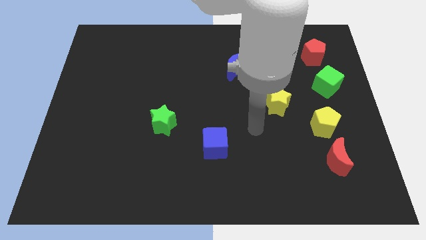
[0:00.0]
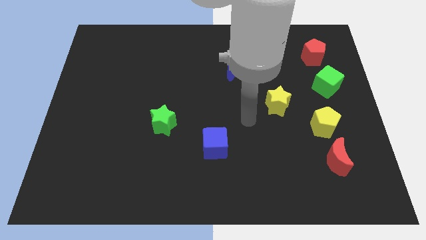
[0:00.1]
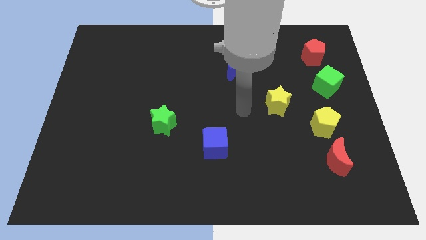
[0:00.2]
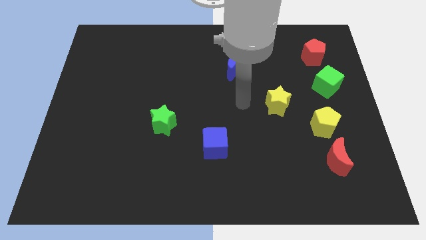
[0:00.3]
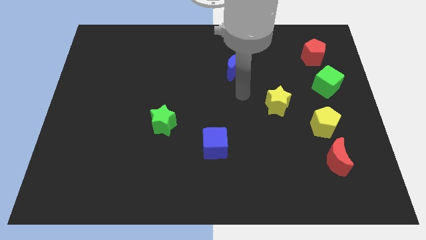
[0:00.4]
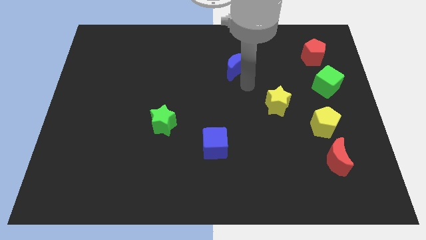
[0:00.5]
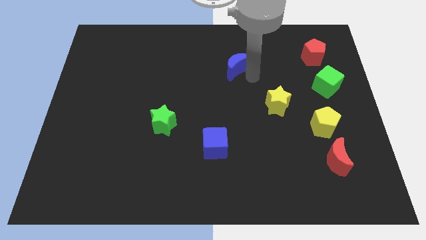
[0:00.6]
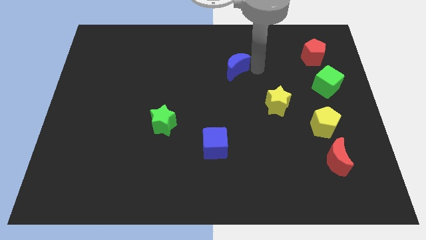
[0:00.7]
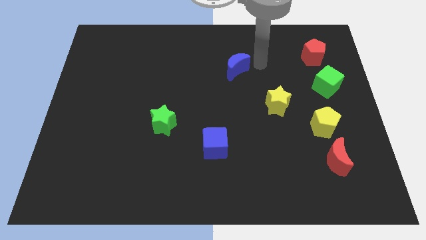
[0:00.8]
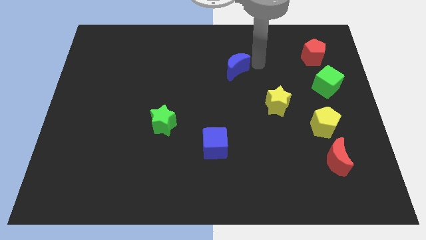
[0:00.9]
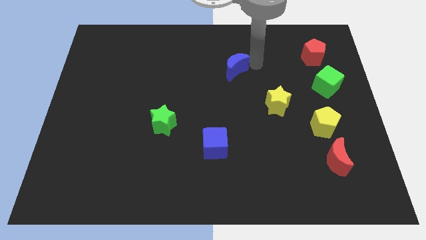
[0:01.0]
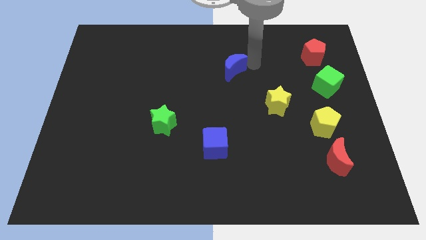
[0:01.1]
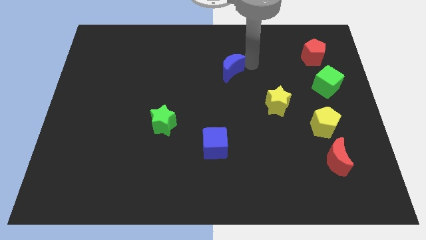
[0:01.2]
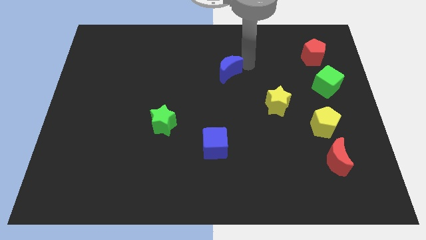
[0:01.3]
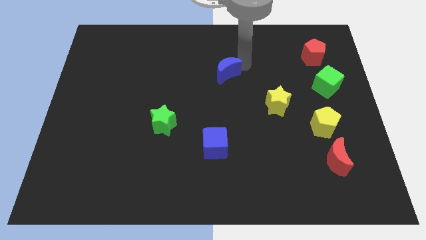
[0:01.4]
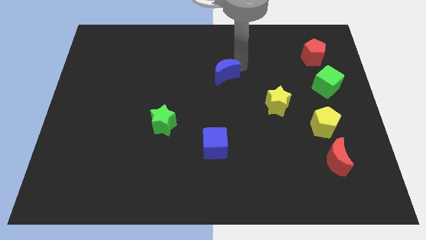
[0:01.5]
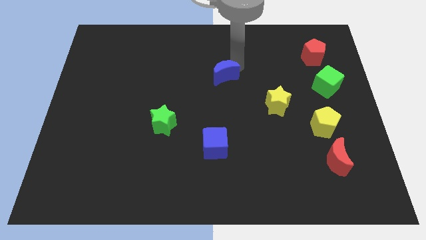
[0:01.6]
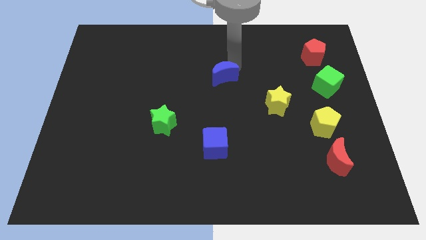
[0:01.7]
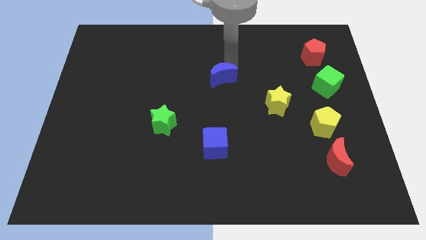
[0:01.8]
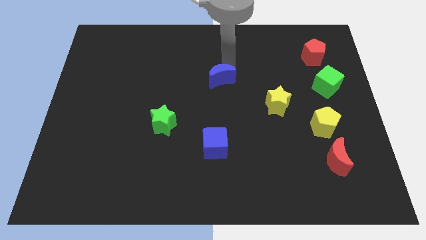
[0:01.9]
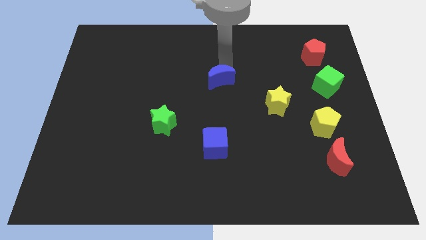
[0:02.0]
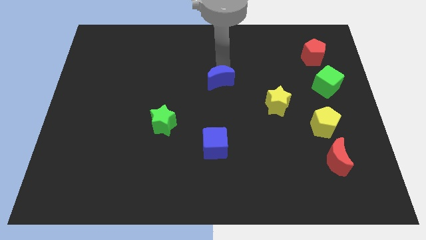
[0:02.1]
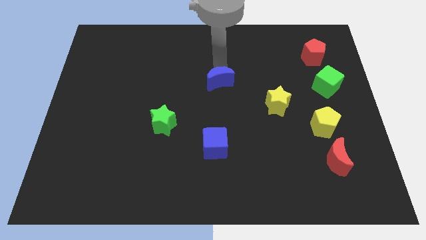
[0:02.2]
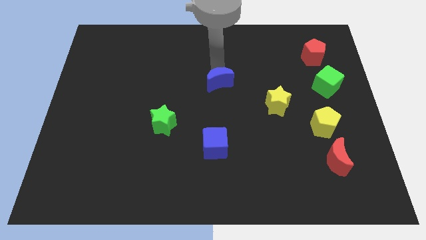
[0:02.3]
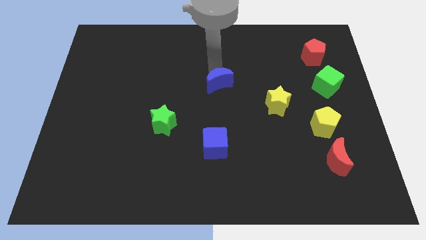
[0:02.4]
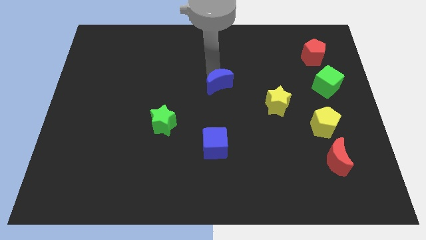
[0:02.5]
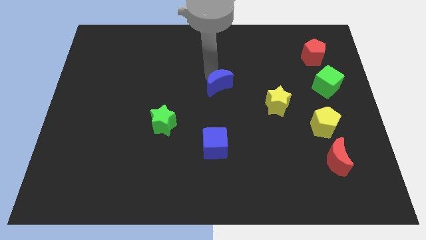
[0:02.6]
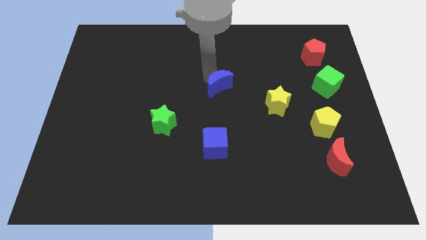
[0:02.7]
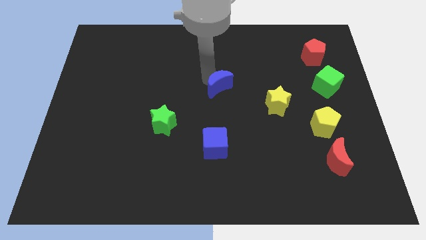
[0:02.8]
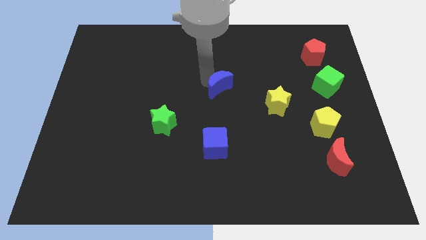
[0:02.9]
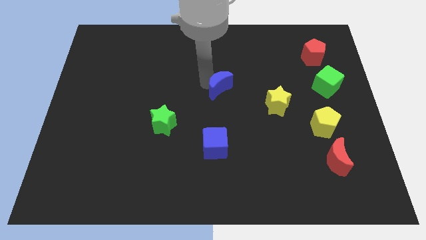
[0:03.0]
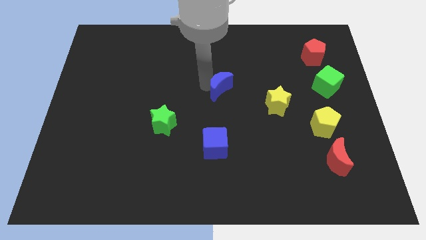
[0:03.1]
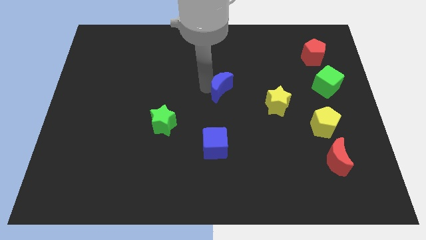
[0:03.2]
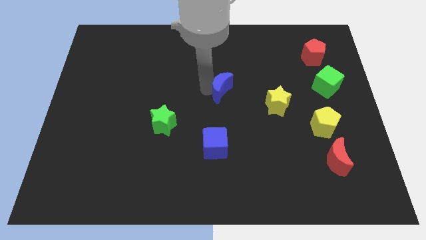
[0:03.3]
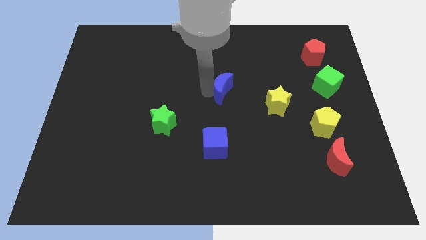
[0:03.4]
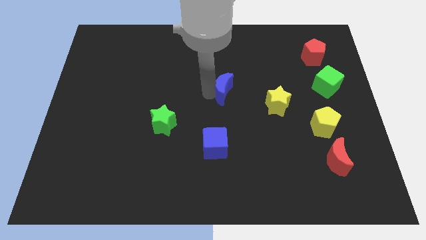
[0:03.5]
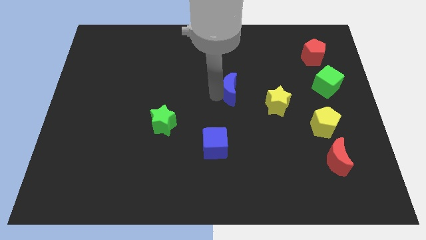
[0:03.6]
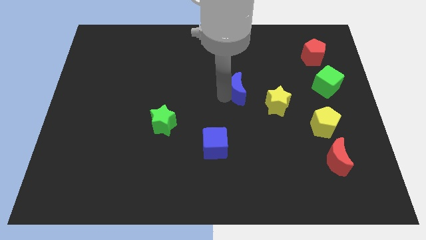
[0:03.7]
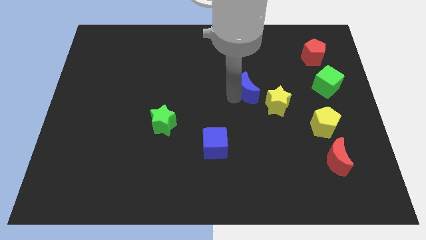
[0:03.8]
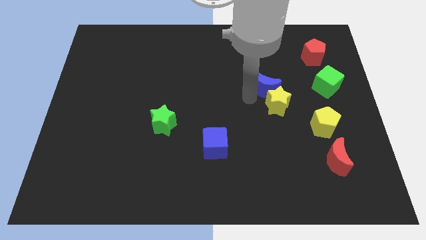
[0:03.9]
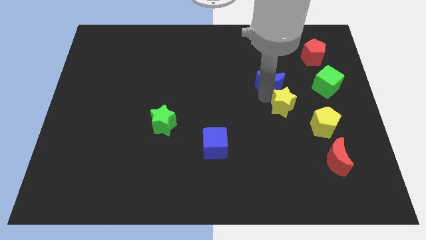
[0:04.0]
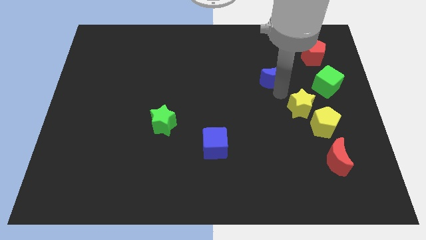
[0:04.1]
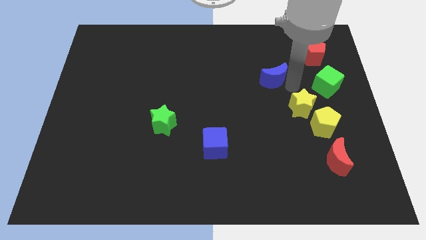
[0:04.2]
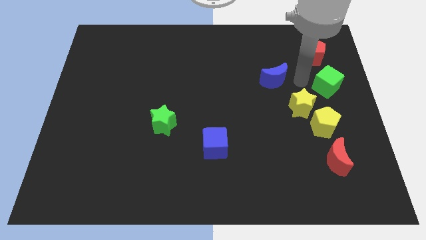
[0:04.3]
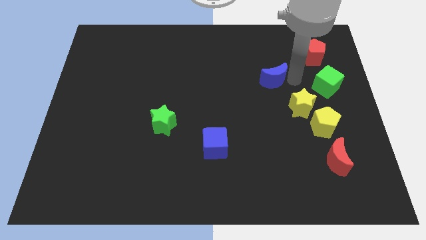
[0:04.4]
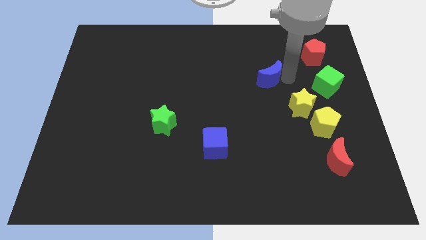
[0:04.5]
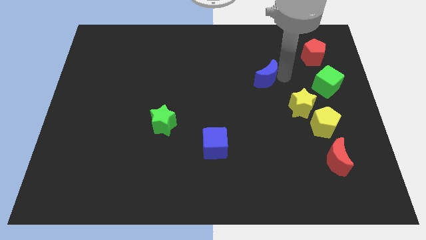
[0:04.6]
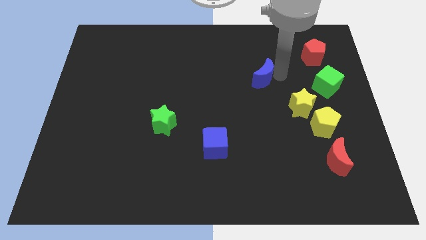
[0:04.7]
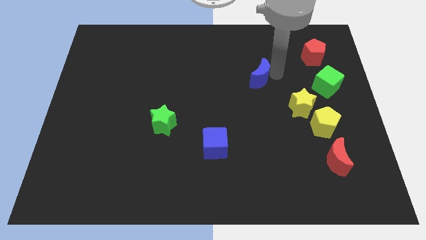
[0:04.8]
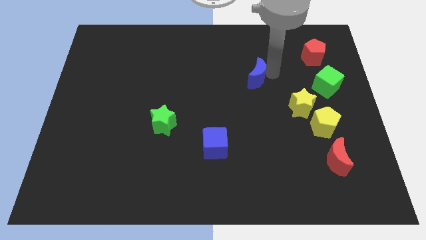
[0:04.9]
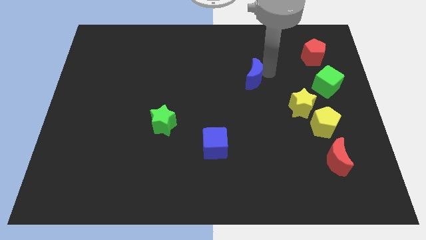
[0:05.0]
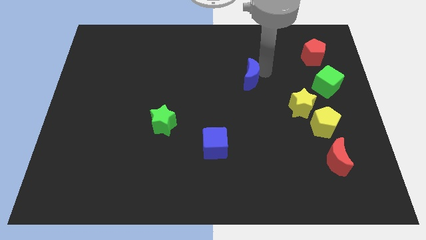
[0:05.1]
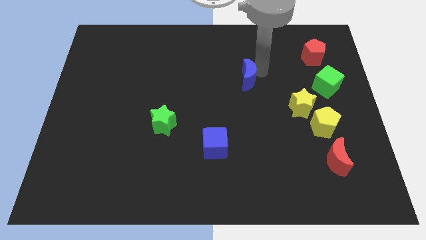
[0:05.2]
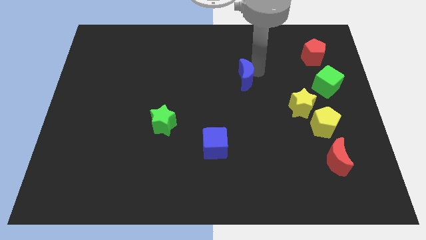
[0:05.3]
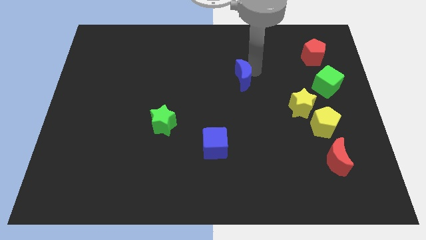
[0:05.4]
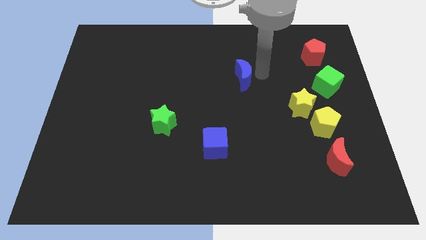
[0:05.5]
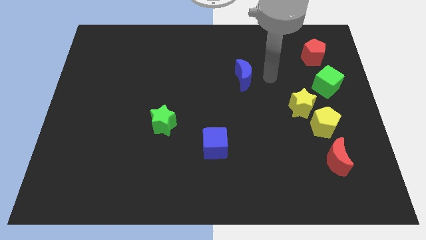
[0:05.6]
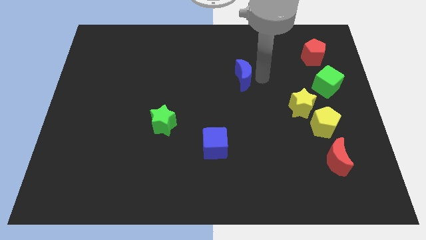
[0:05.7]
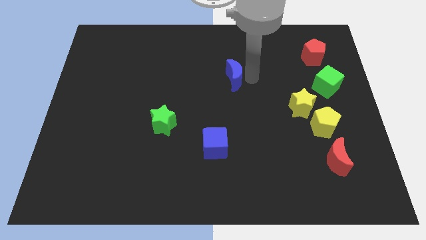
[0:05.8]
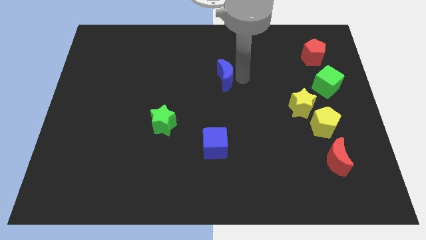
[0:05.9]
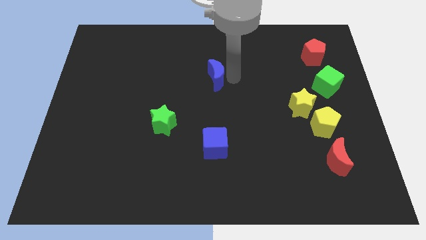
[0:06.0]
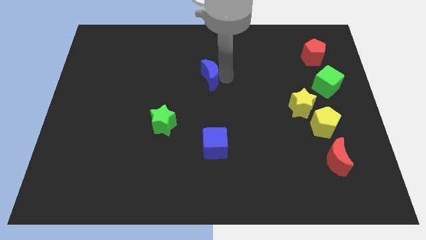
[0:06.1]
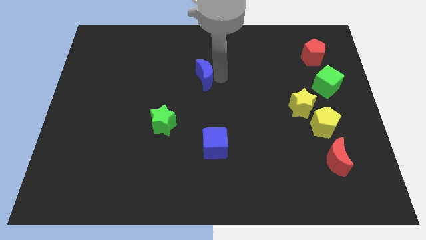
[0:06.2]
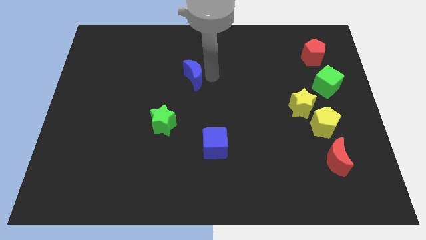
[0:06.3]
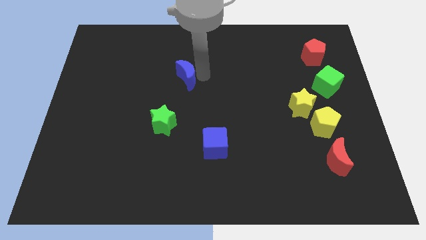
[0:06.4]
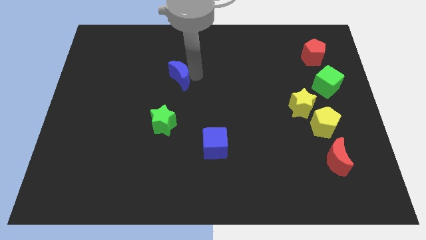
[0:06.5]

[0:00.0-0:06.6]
slide the blue moon to the top side of the green star
